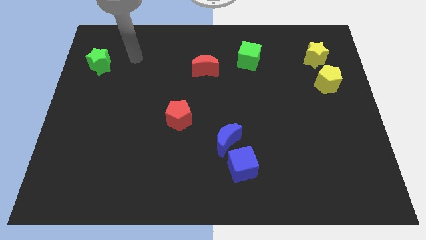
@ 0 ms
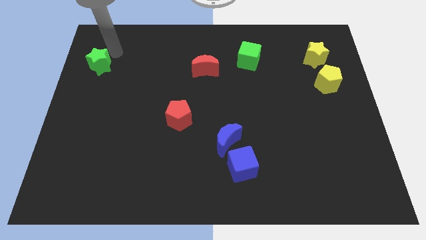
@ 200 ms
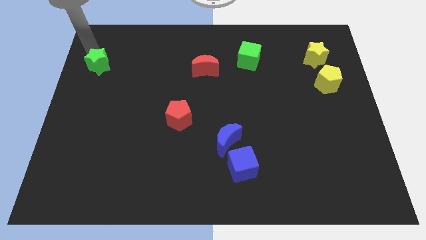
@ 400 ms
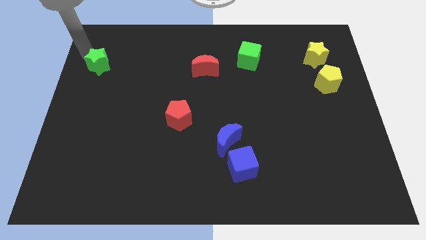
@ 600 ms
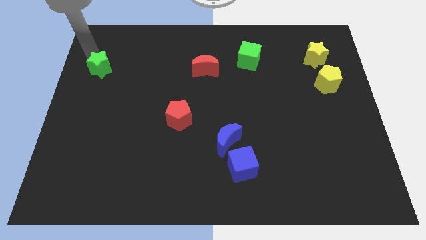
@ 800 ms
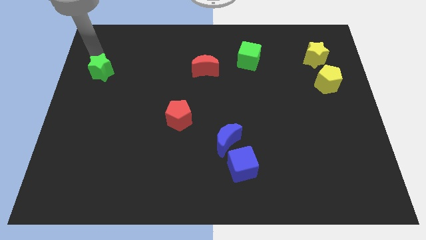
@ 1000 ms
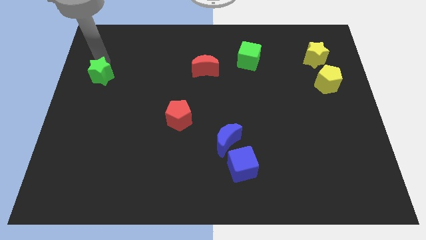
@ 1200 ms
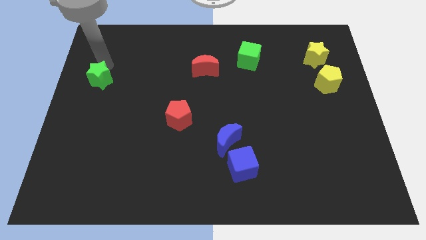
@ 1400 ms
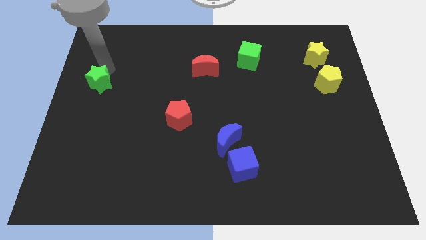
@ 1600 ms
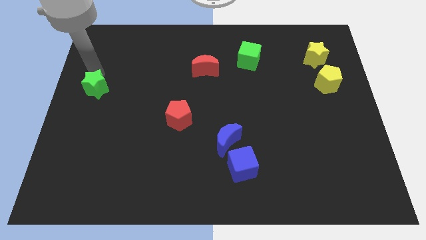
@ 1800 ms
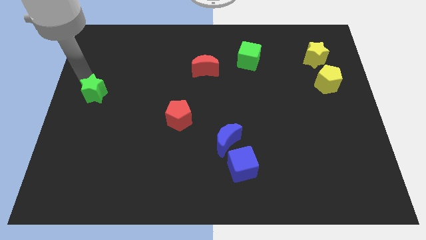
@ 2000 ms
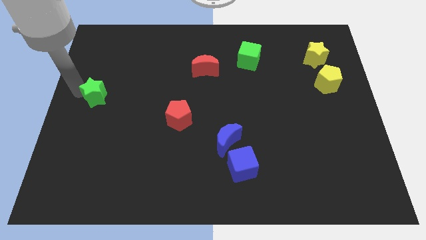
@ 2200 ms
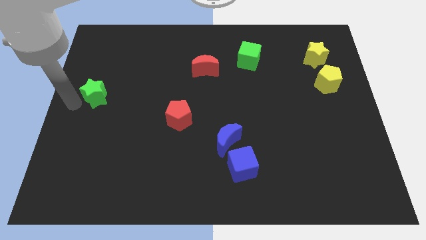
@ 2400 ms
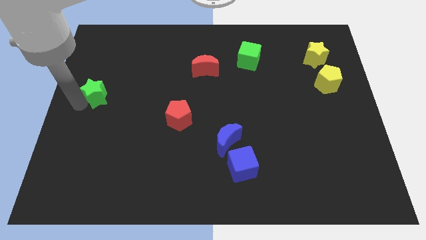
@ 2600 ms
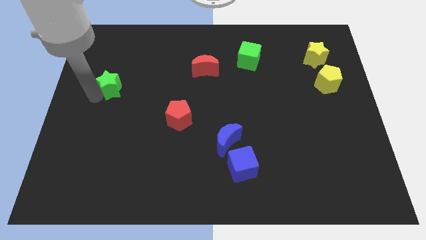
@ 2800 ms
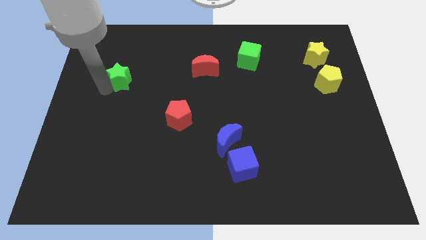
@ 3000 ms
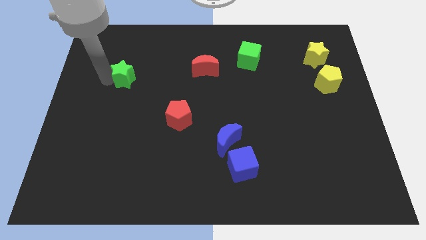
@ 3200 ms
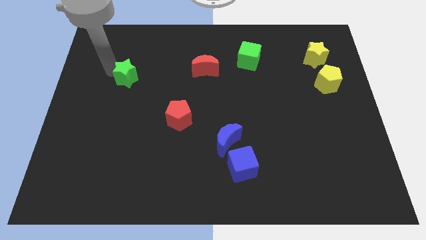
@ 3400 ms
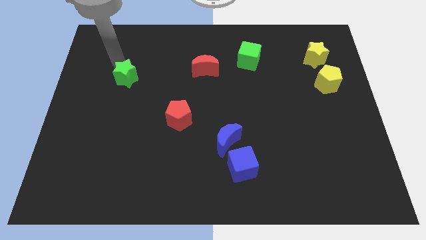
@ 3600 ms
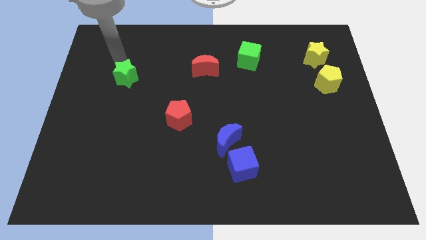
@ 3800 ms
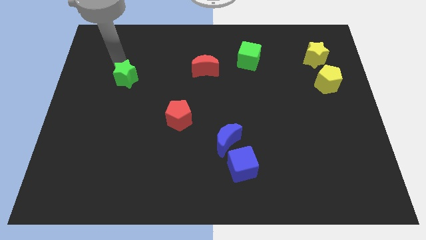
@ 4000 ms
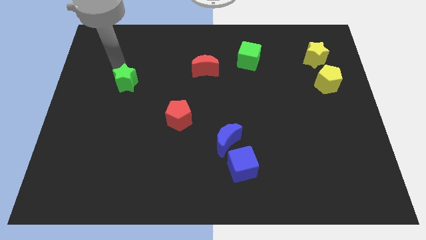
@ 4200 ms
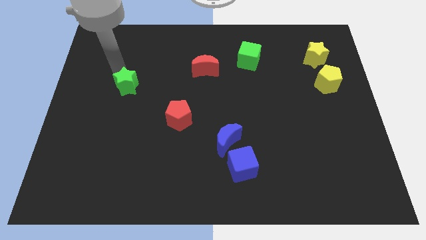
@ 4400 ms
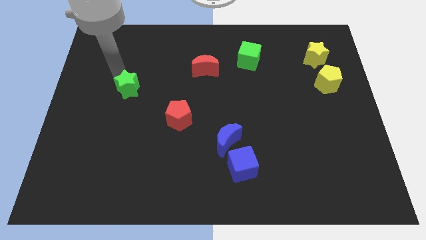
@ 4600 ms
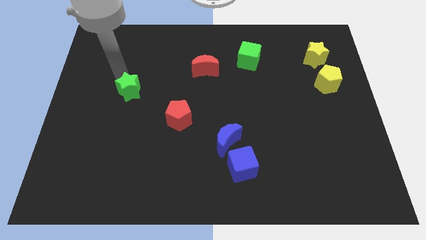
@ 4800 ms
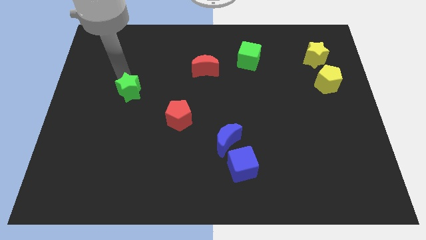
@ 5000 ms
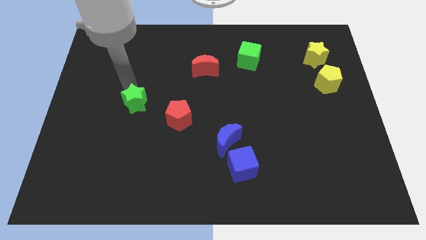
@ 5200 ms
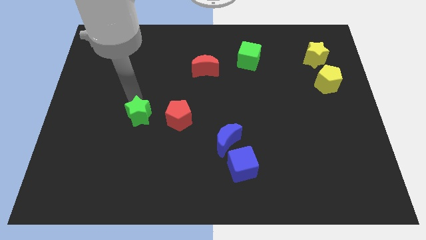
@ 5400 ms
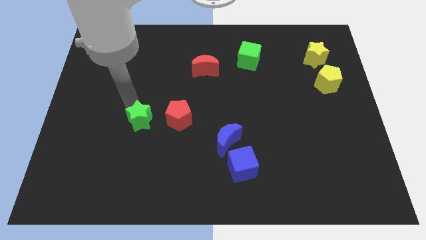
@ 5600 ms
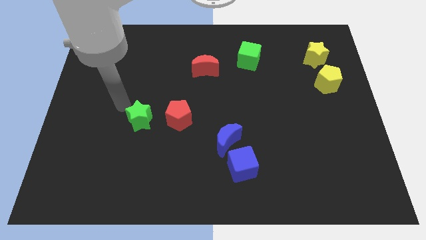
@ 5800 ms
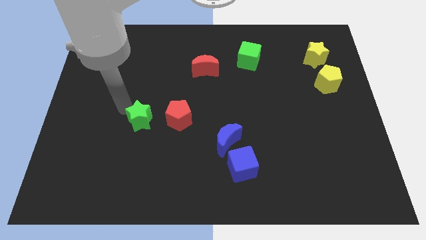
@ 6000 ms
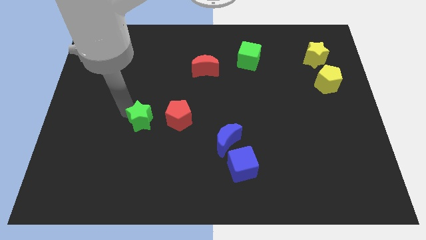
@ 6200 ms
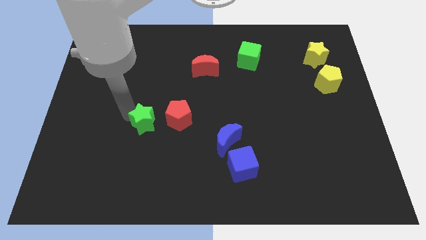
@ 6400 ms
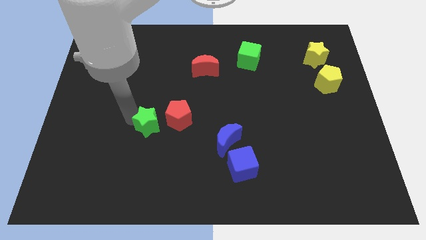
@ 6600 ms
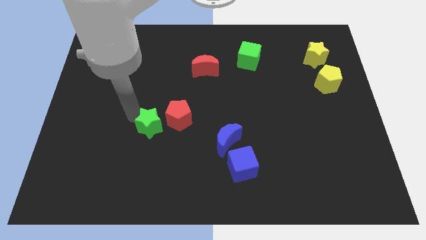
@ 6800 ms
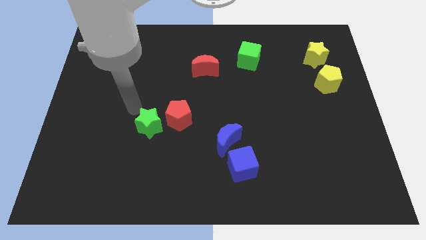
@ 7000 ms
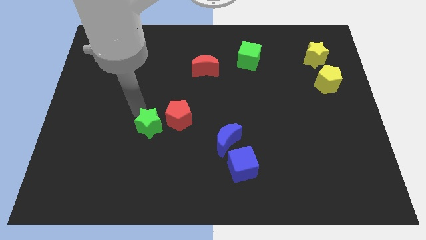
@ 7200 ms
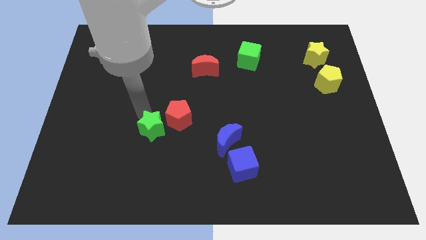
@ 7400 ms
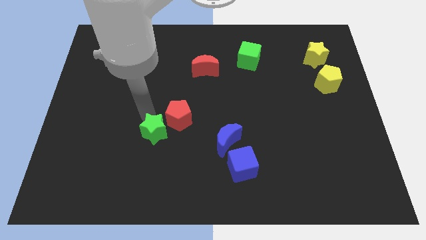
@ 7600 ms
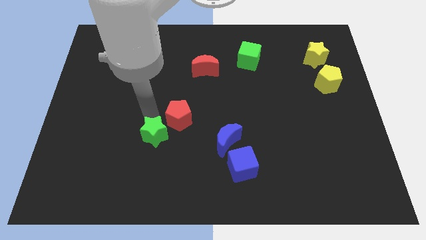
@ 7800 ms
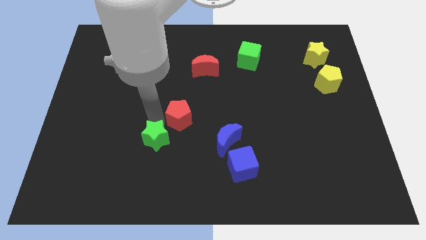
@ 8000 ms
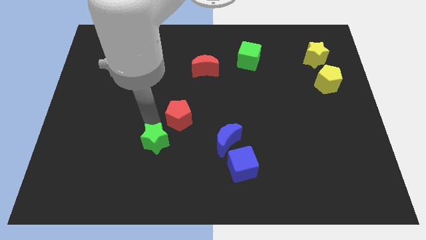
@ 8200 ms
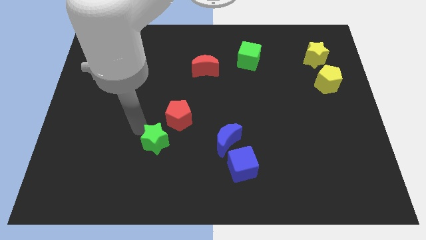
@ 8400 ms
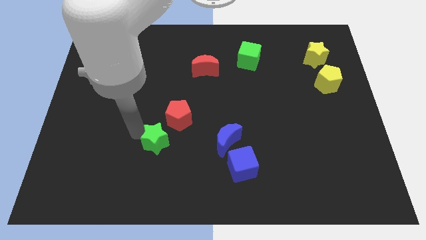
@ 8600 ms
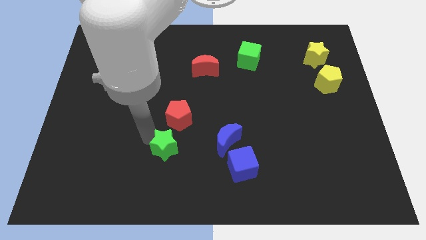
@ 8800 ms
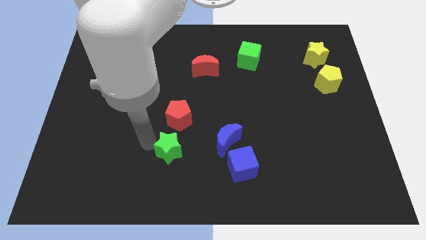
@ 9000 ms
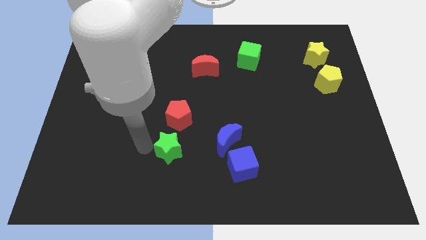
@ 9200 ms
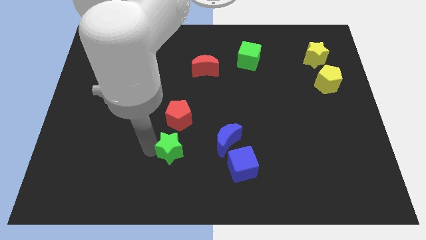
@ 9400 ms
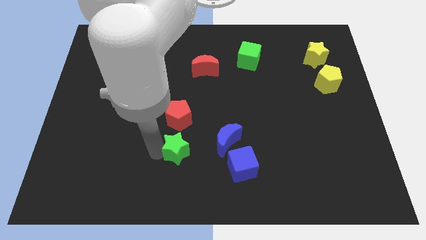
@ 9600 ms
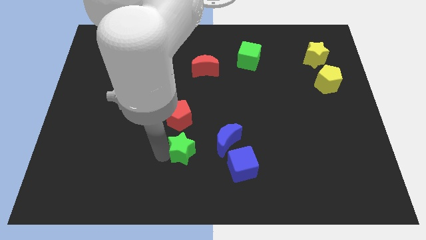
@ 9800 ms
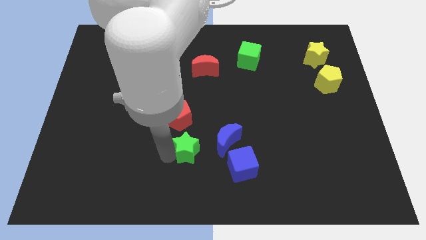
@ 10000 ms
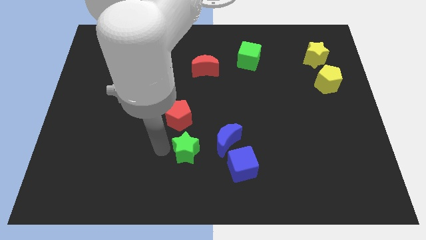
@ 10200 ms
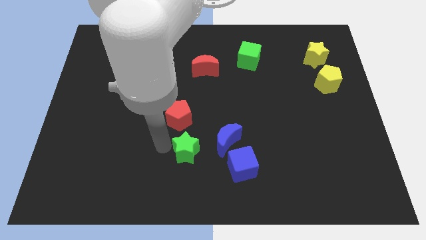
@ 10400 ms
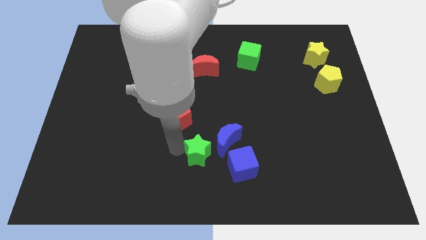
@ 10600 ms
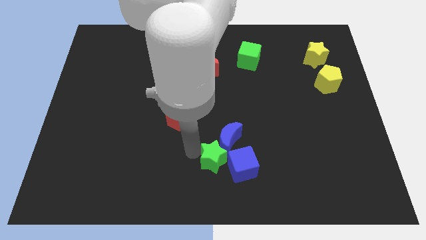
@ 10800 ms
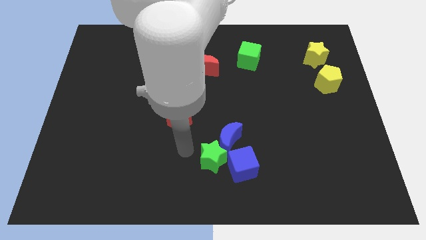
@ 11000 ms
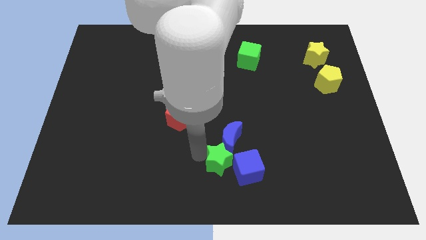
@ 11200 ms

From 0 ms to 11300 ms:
put the green star to the blue cube
